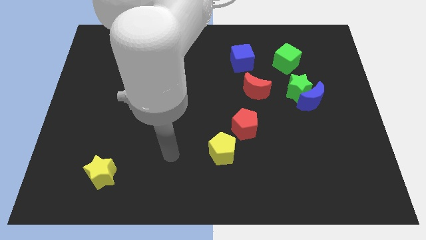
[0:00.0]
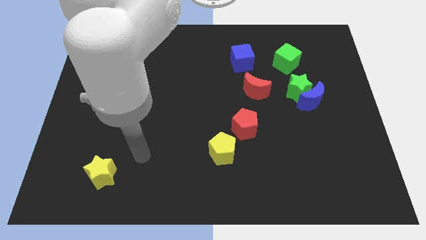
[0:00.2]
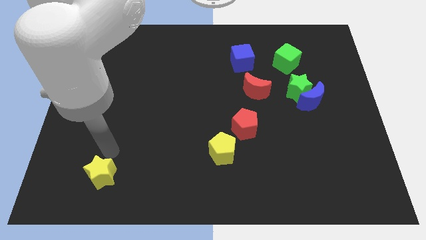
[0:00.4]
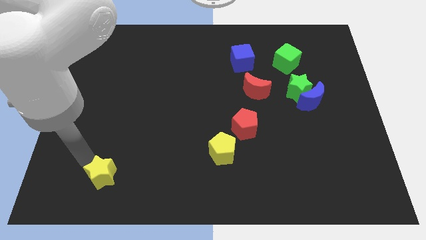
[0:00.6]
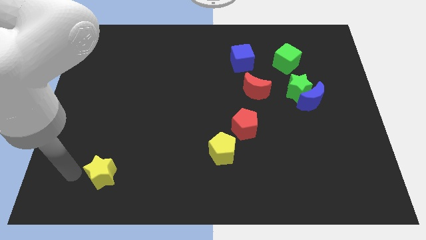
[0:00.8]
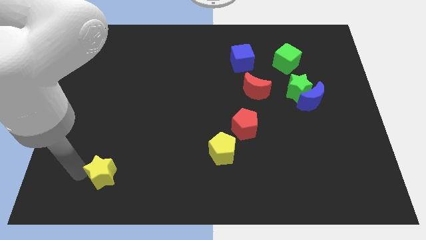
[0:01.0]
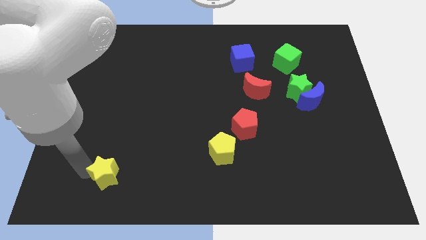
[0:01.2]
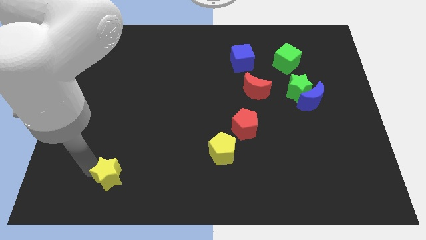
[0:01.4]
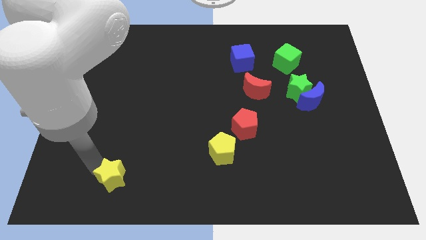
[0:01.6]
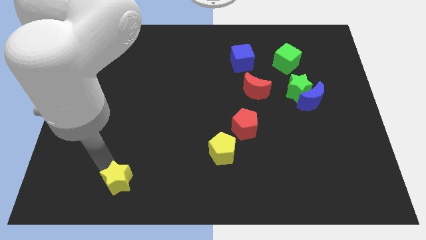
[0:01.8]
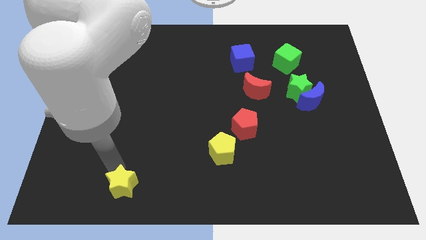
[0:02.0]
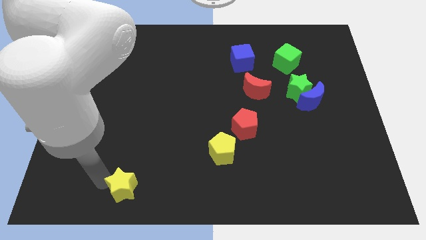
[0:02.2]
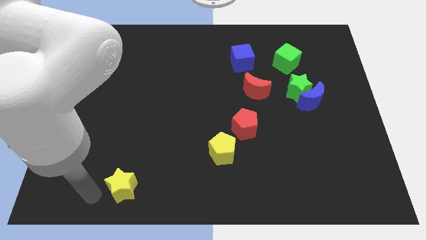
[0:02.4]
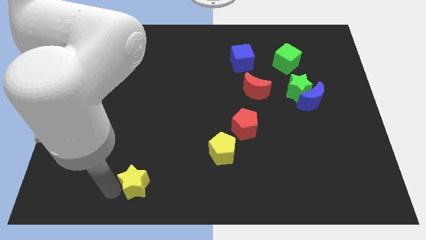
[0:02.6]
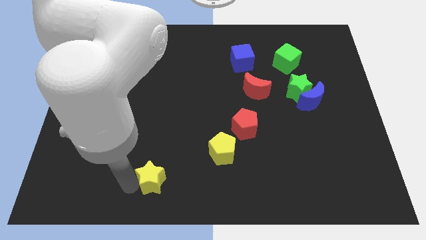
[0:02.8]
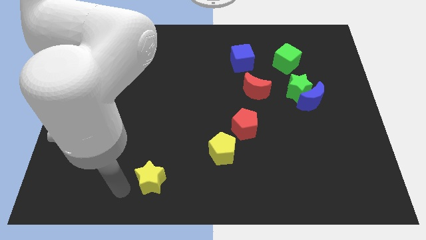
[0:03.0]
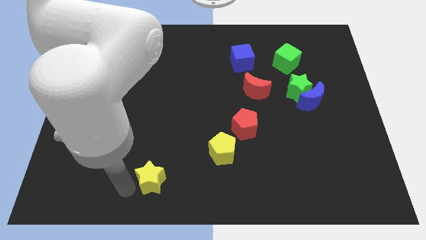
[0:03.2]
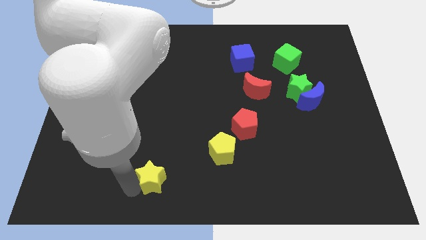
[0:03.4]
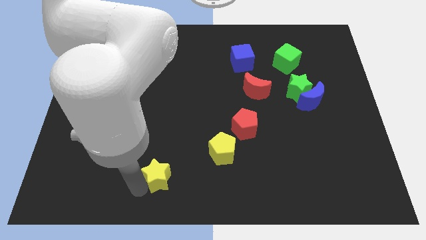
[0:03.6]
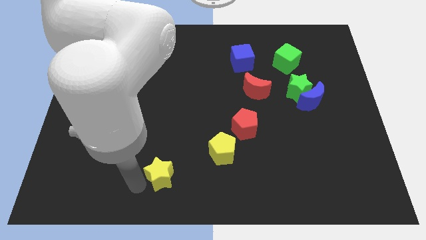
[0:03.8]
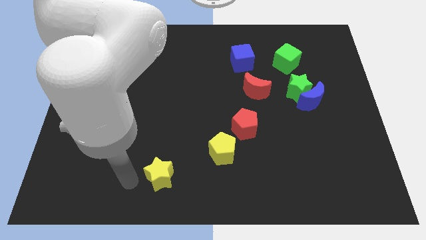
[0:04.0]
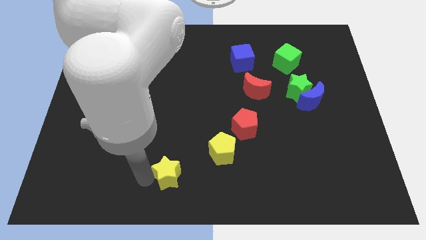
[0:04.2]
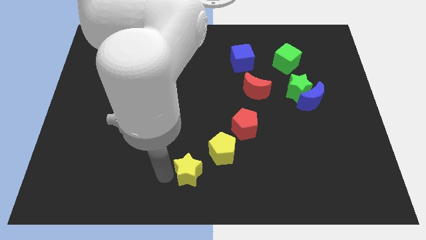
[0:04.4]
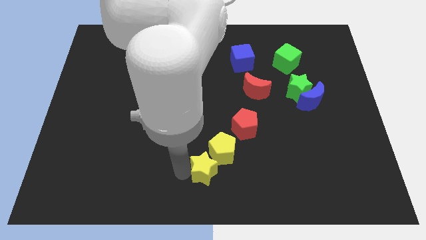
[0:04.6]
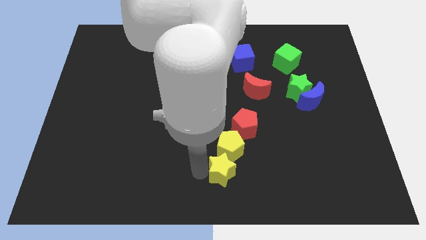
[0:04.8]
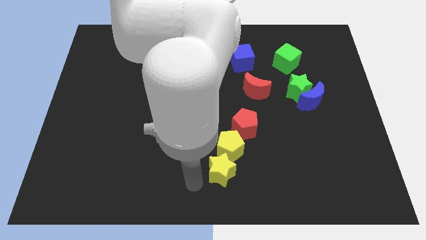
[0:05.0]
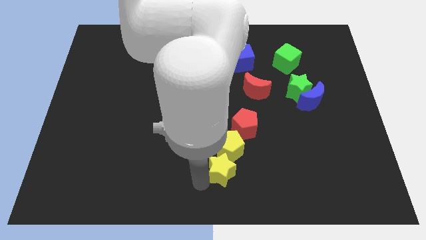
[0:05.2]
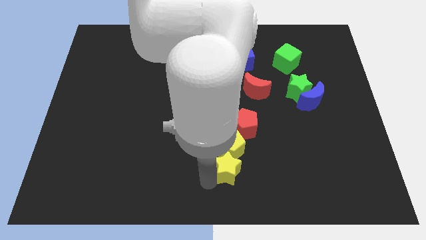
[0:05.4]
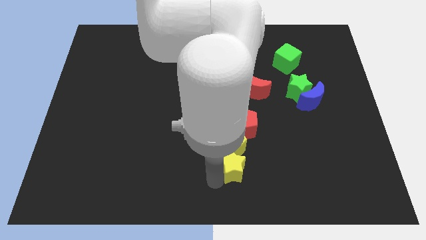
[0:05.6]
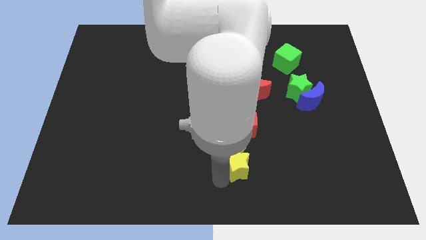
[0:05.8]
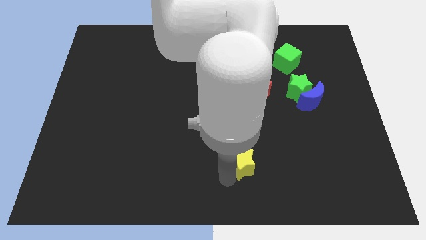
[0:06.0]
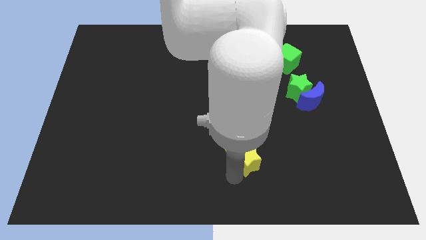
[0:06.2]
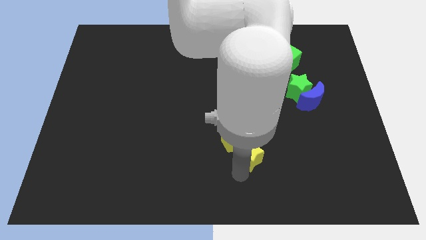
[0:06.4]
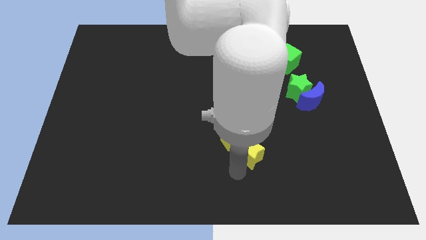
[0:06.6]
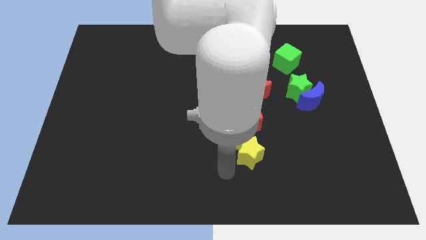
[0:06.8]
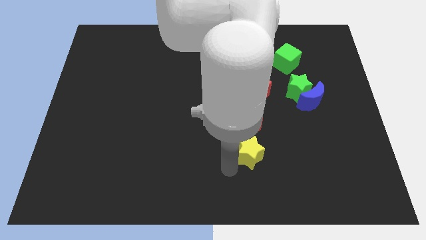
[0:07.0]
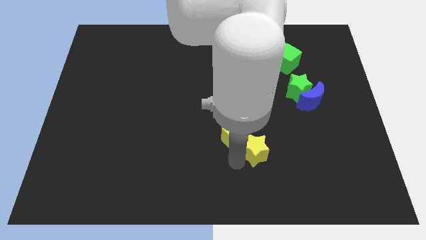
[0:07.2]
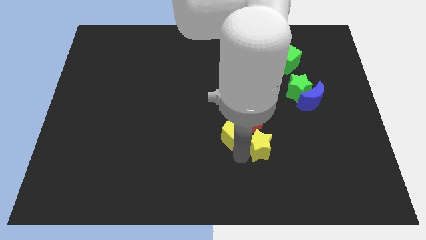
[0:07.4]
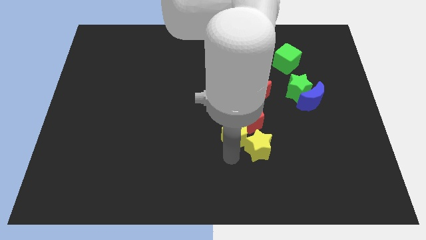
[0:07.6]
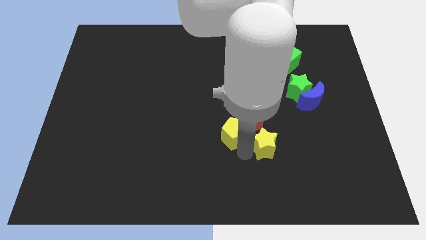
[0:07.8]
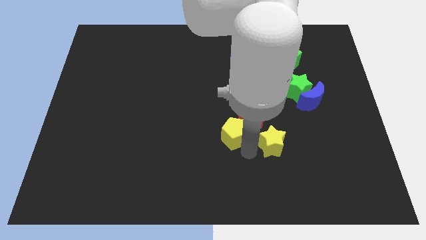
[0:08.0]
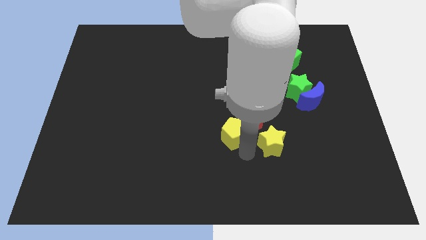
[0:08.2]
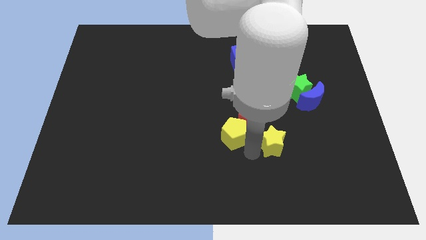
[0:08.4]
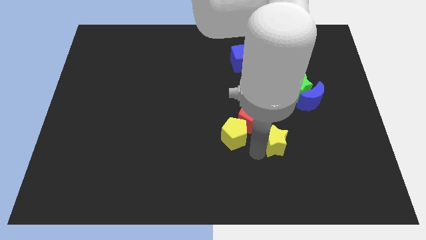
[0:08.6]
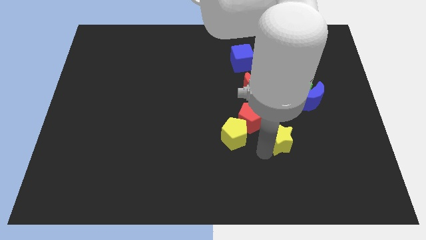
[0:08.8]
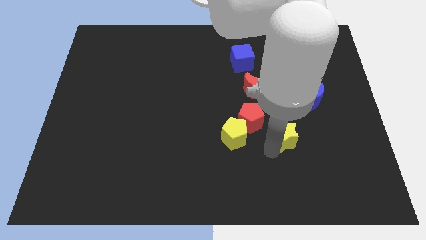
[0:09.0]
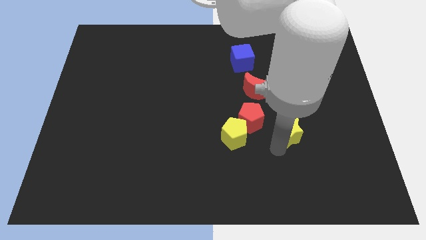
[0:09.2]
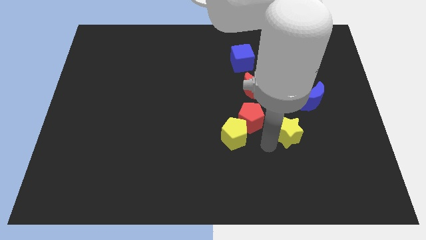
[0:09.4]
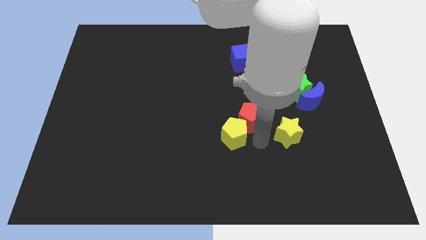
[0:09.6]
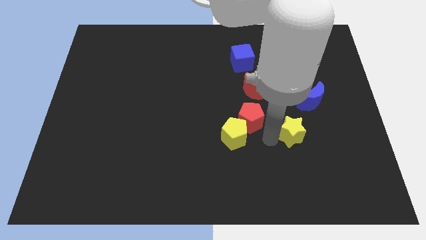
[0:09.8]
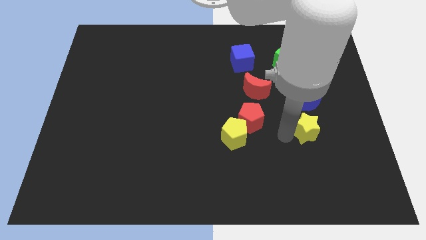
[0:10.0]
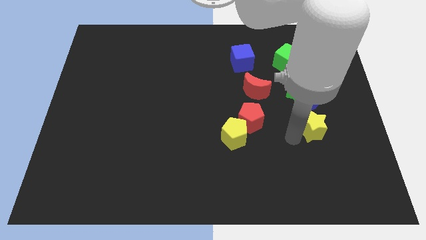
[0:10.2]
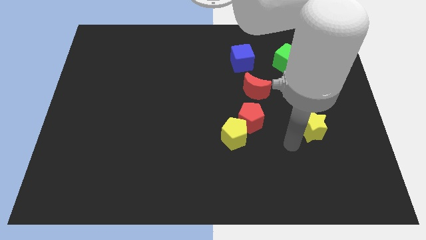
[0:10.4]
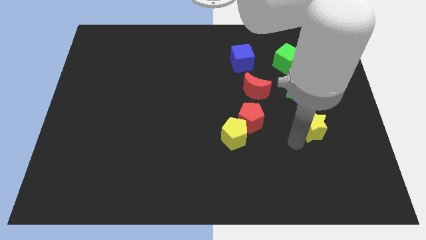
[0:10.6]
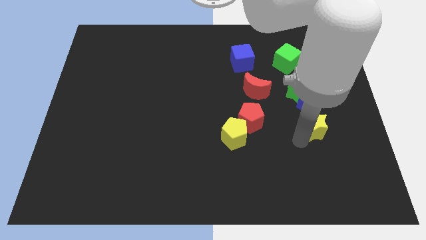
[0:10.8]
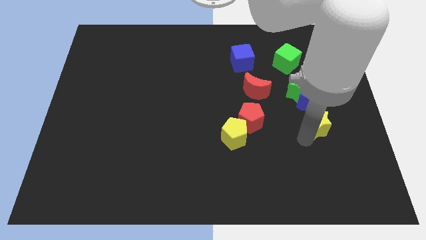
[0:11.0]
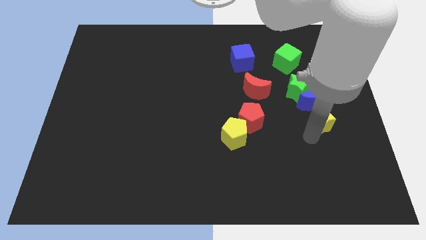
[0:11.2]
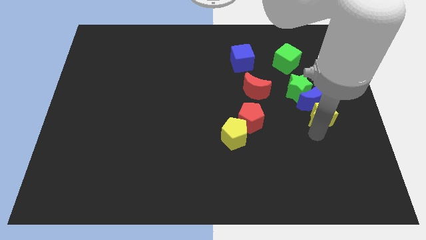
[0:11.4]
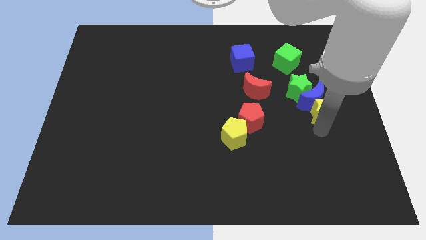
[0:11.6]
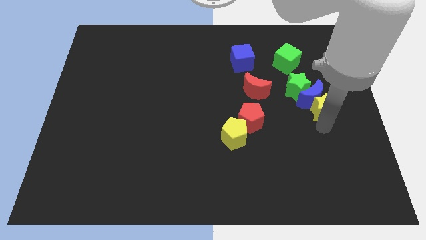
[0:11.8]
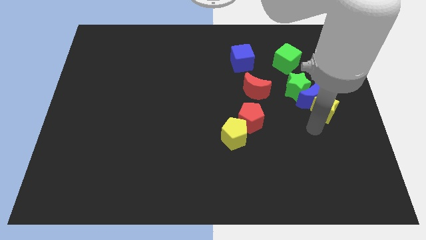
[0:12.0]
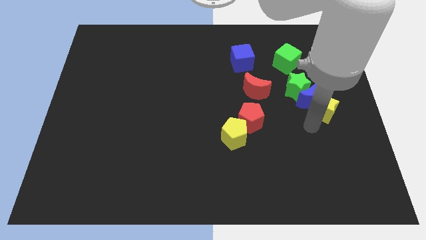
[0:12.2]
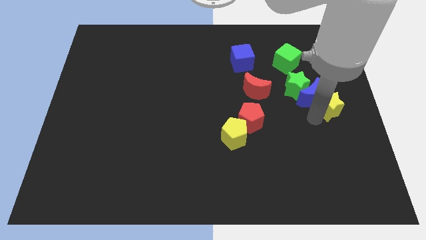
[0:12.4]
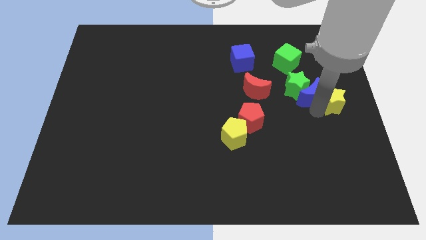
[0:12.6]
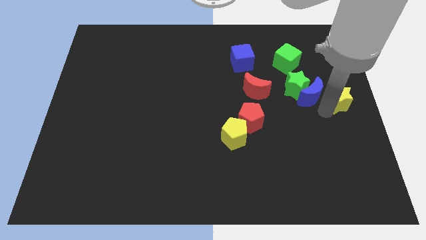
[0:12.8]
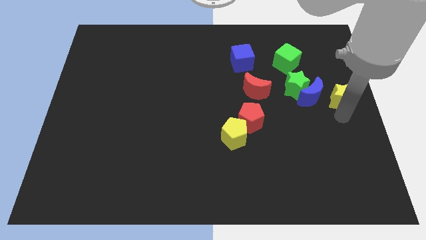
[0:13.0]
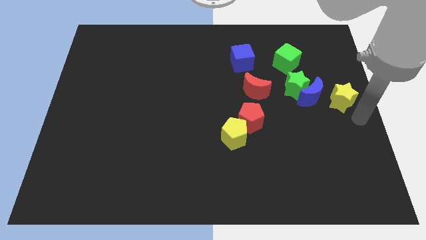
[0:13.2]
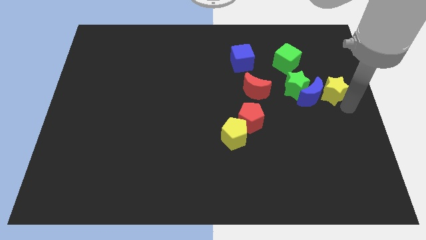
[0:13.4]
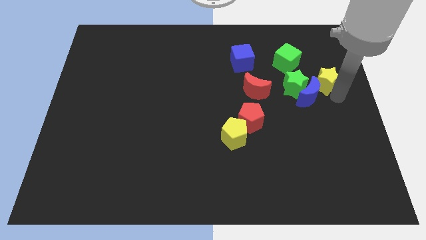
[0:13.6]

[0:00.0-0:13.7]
slide the yellow star to the top right side of the green star
